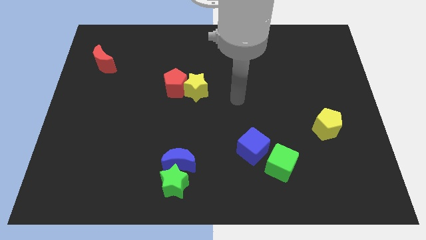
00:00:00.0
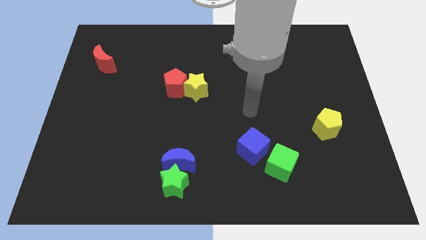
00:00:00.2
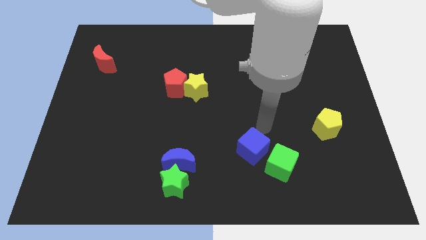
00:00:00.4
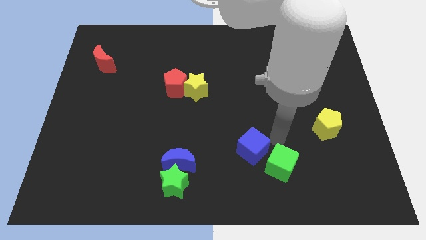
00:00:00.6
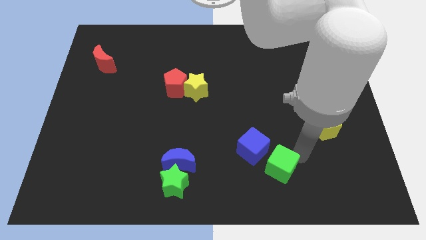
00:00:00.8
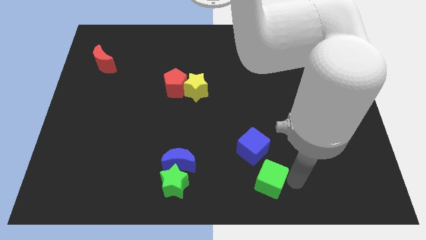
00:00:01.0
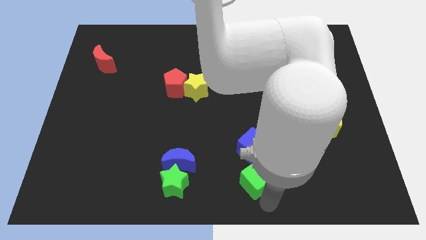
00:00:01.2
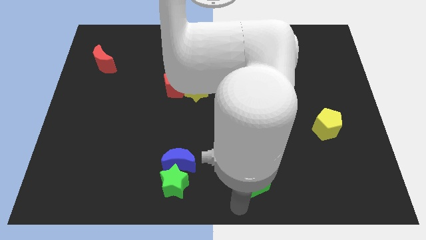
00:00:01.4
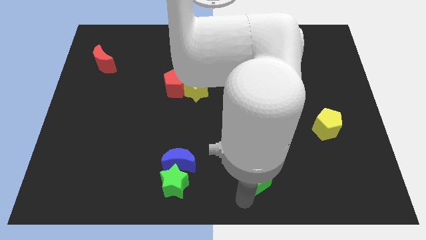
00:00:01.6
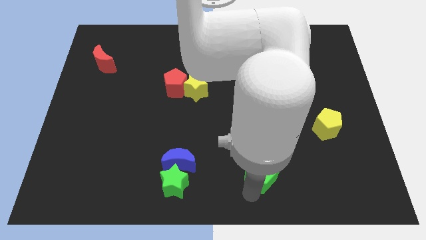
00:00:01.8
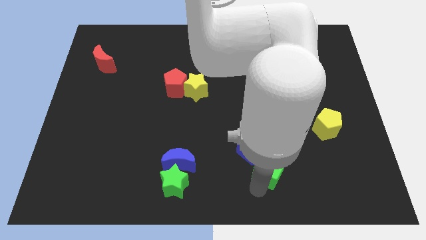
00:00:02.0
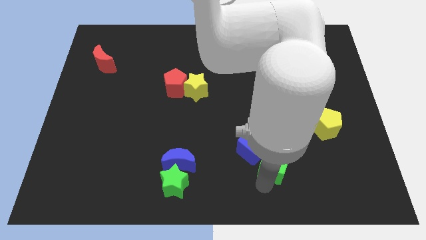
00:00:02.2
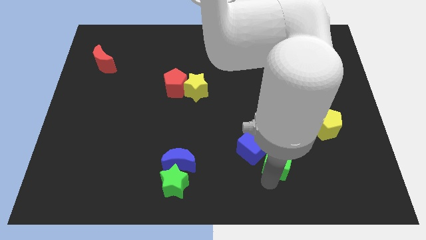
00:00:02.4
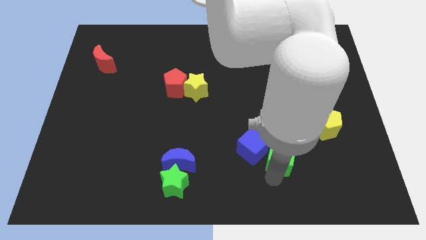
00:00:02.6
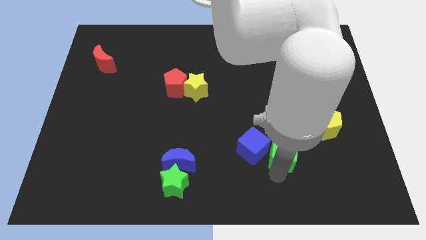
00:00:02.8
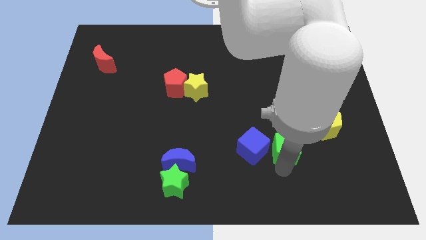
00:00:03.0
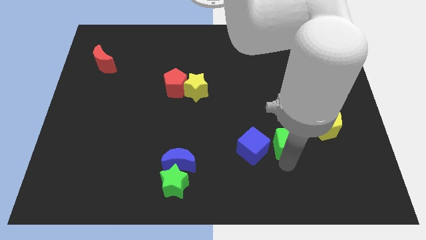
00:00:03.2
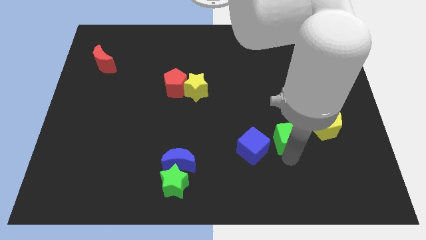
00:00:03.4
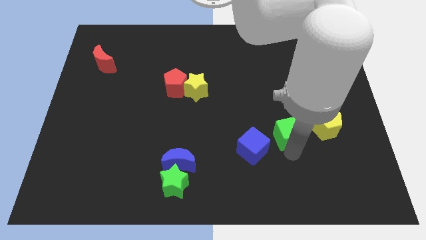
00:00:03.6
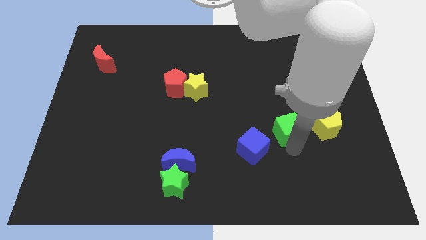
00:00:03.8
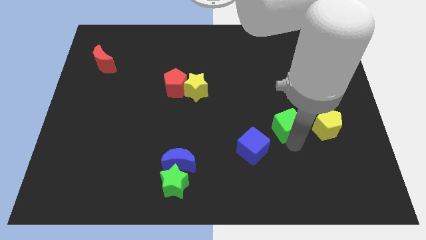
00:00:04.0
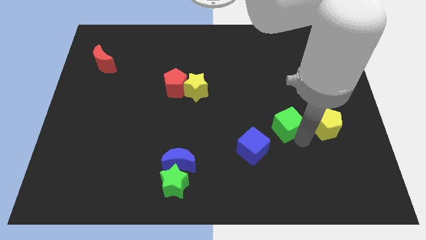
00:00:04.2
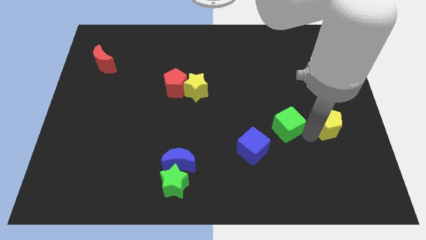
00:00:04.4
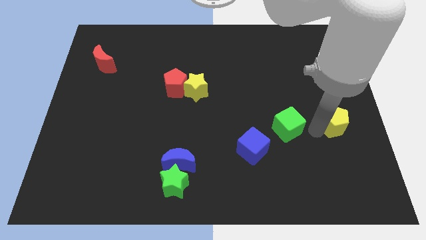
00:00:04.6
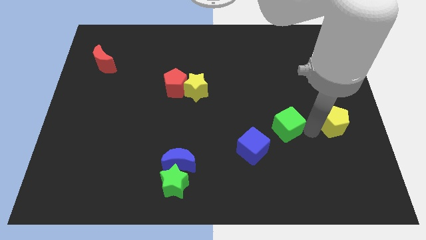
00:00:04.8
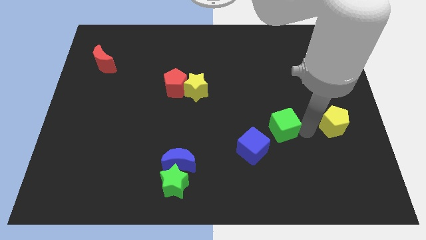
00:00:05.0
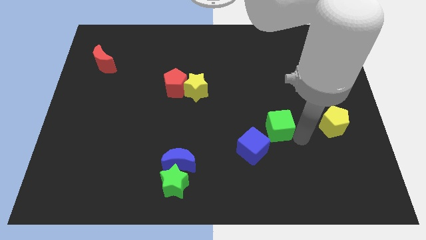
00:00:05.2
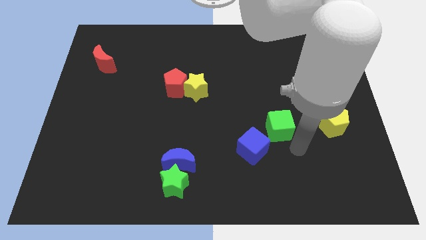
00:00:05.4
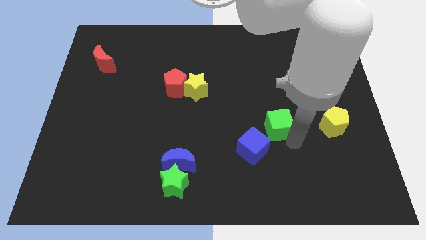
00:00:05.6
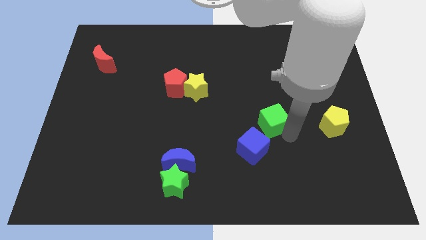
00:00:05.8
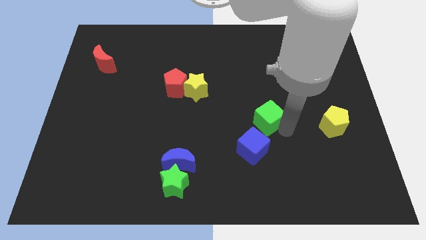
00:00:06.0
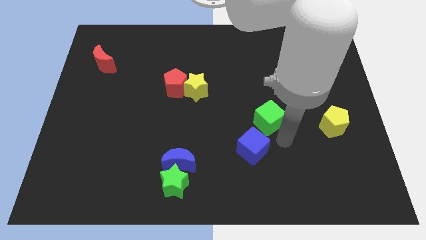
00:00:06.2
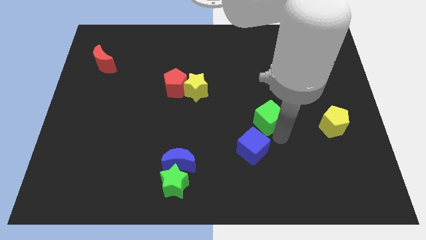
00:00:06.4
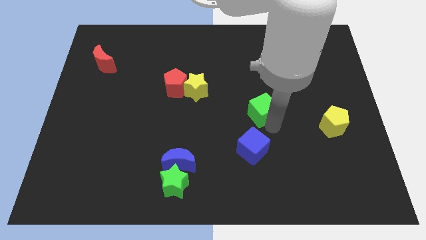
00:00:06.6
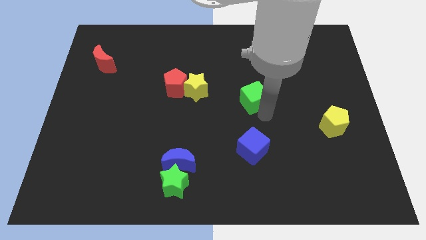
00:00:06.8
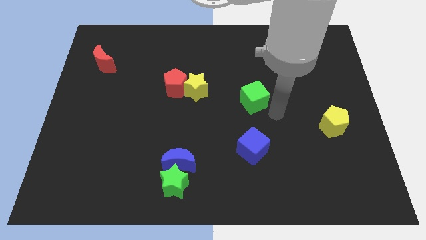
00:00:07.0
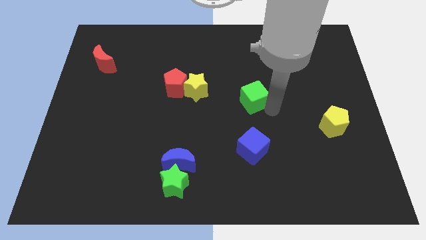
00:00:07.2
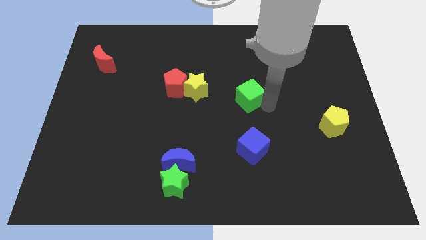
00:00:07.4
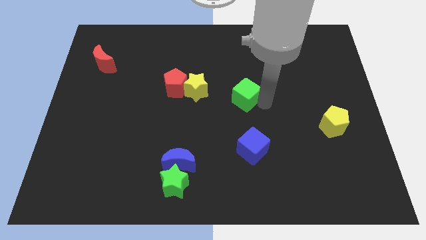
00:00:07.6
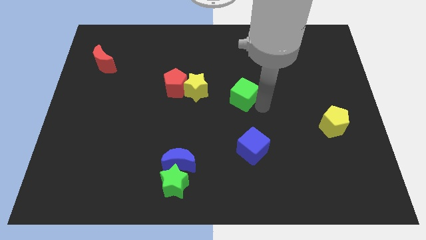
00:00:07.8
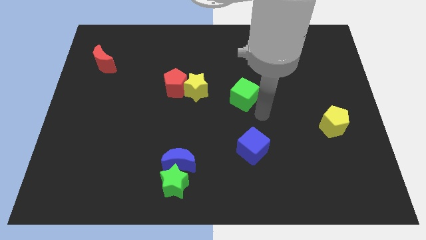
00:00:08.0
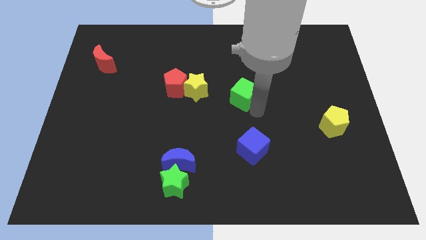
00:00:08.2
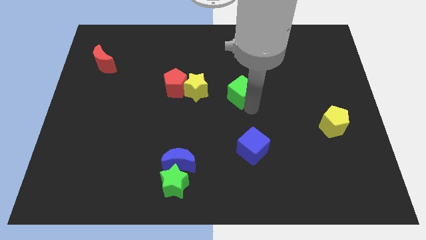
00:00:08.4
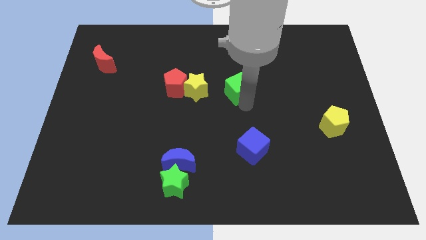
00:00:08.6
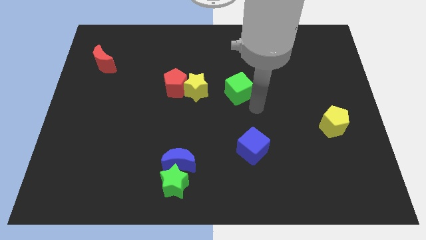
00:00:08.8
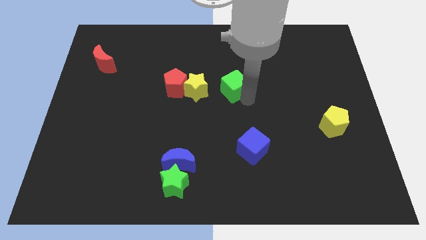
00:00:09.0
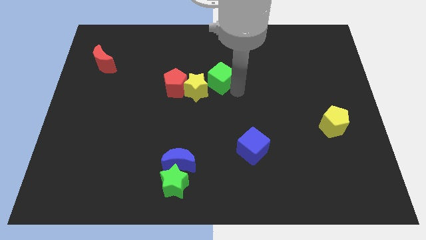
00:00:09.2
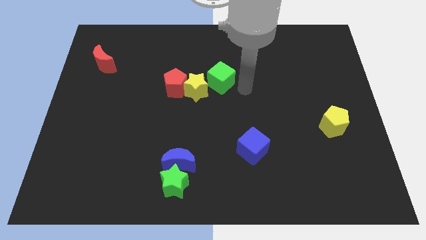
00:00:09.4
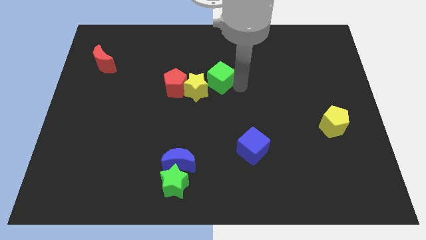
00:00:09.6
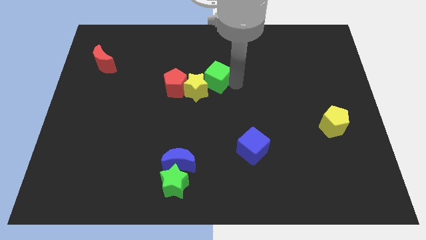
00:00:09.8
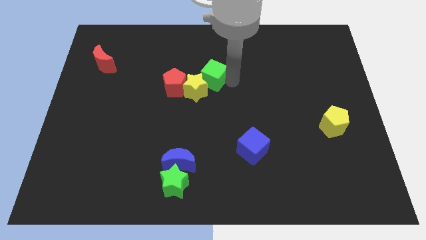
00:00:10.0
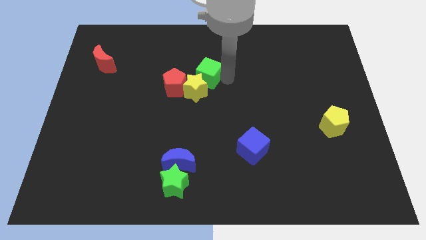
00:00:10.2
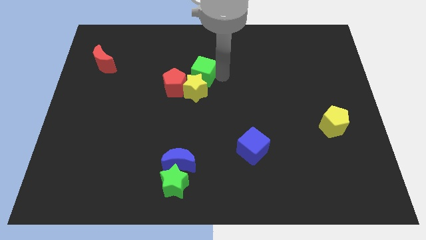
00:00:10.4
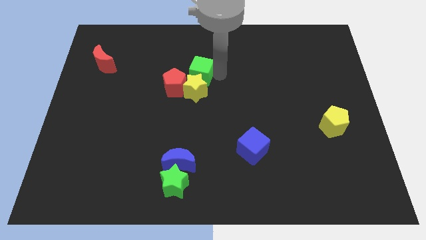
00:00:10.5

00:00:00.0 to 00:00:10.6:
slide the green cube to the top left side of the yellow star

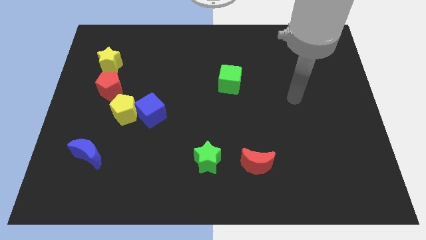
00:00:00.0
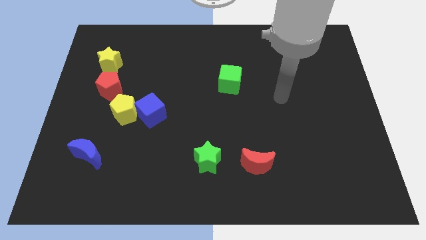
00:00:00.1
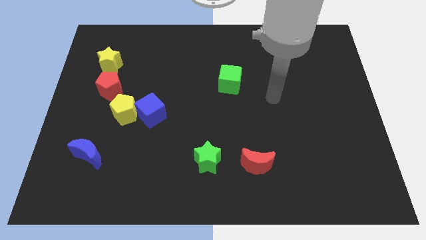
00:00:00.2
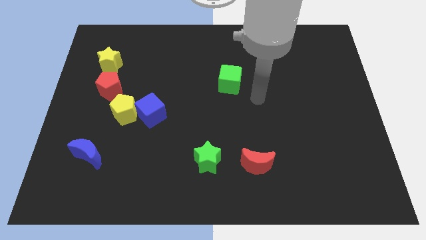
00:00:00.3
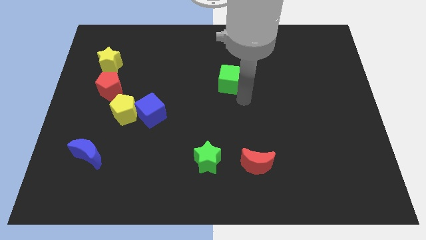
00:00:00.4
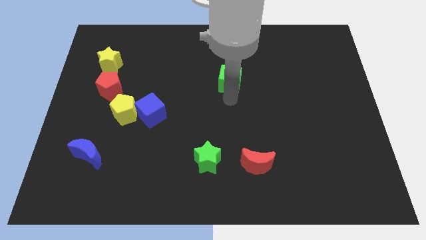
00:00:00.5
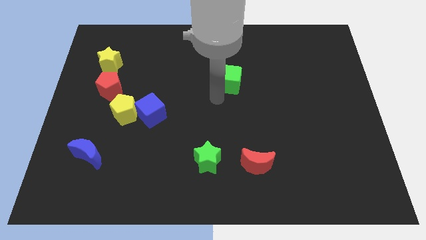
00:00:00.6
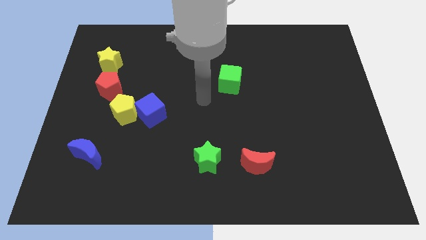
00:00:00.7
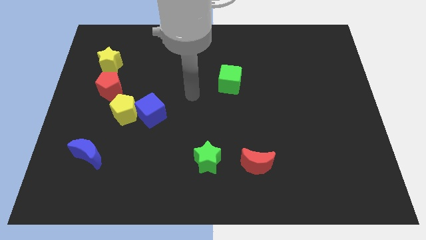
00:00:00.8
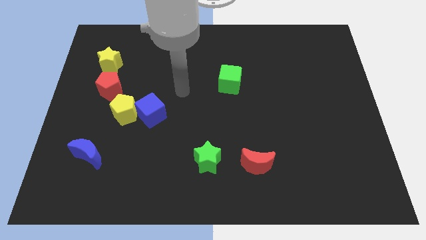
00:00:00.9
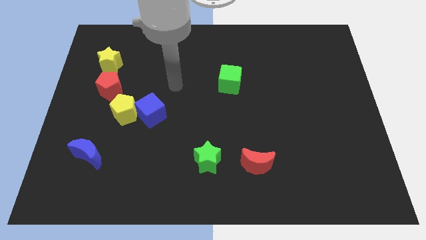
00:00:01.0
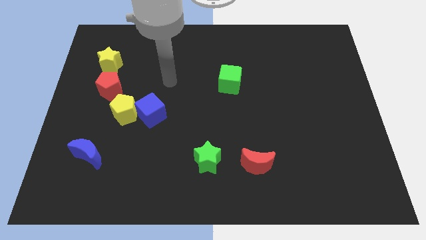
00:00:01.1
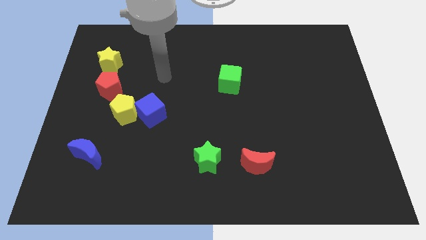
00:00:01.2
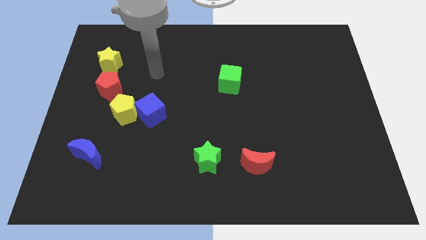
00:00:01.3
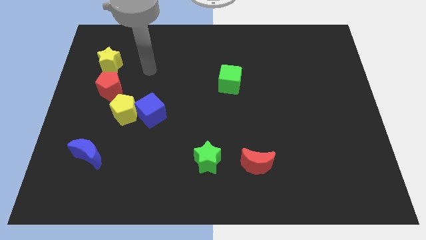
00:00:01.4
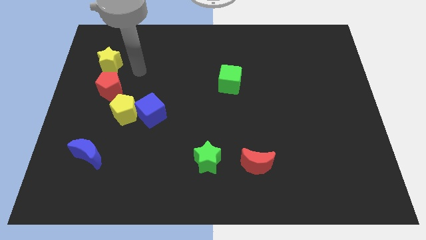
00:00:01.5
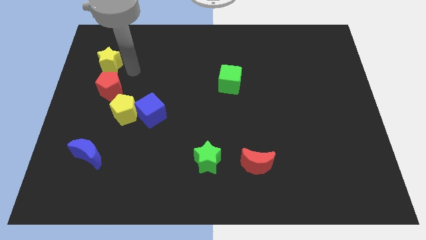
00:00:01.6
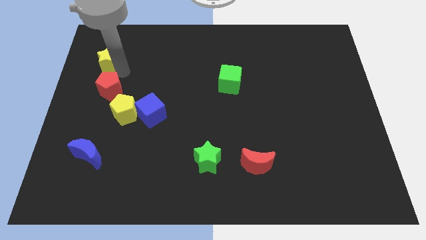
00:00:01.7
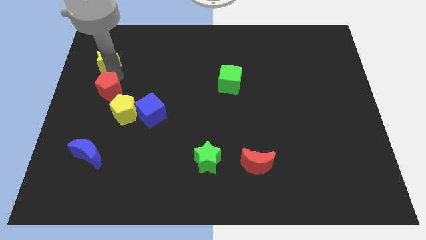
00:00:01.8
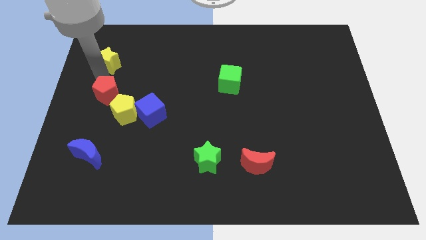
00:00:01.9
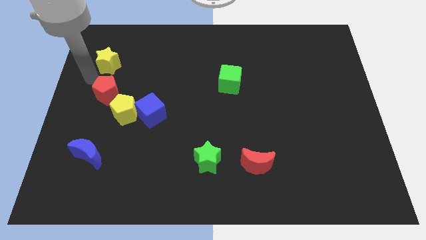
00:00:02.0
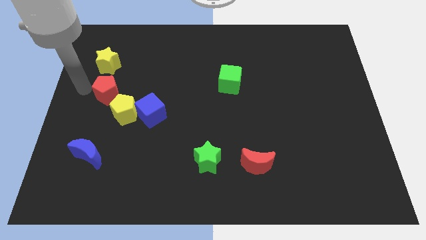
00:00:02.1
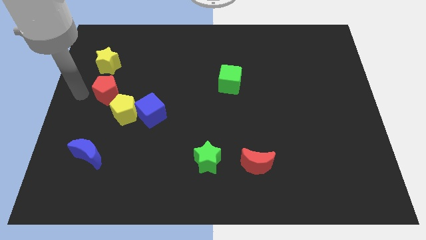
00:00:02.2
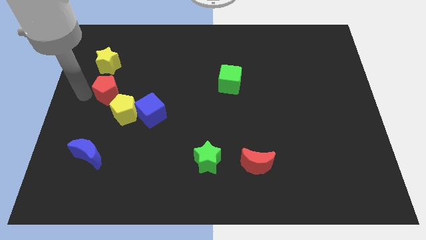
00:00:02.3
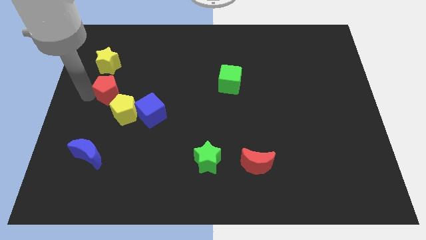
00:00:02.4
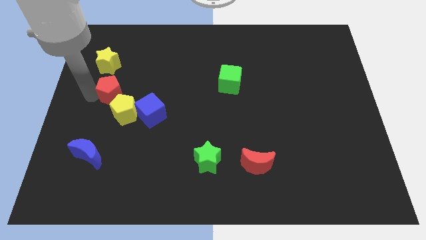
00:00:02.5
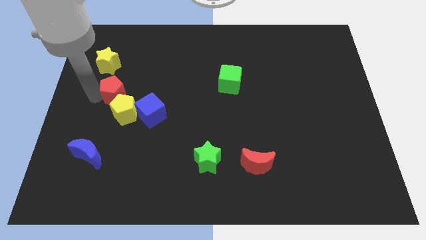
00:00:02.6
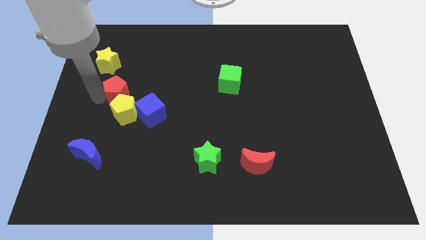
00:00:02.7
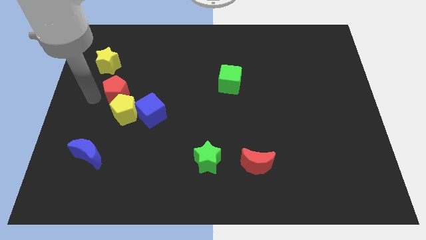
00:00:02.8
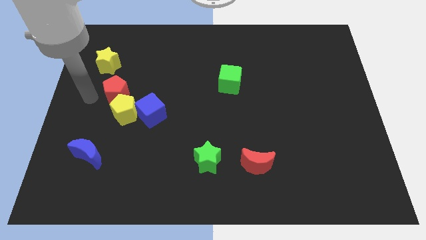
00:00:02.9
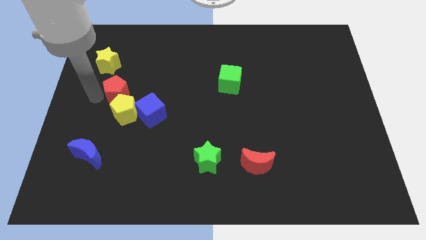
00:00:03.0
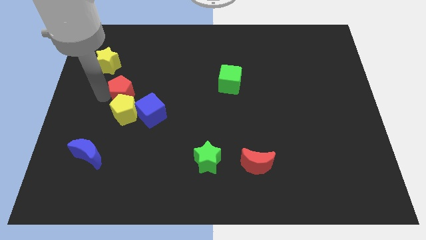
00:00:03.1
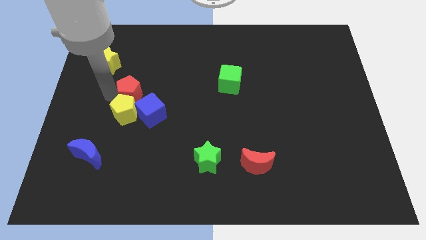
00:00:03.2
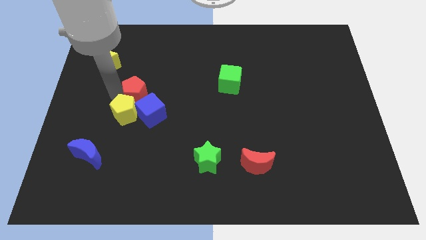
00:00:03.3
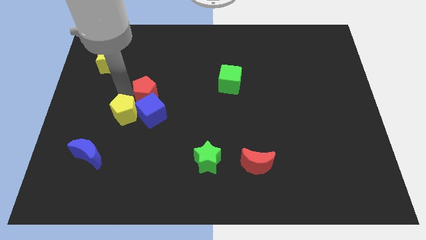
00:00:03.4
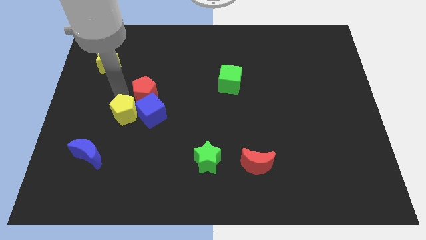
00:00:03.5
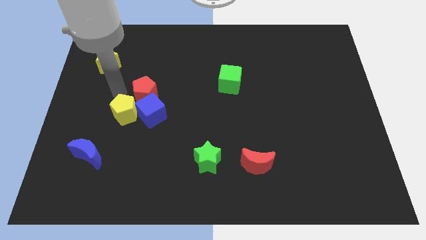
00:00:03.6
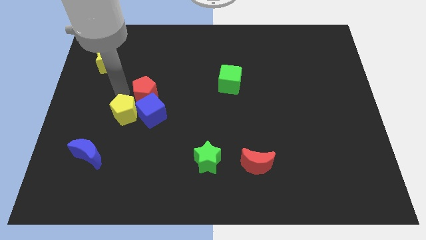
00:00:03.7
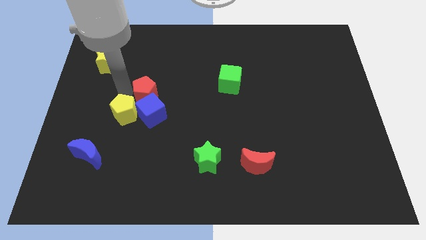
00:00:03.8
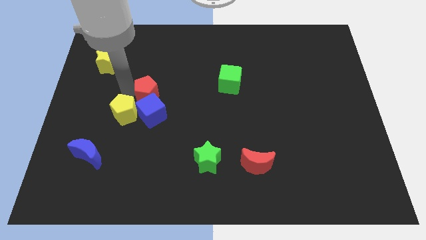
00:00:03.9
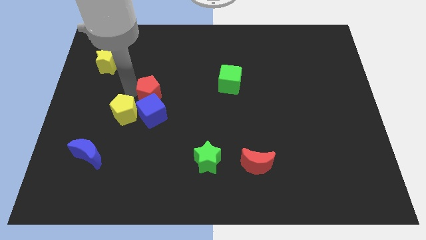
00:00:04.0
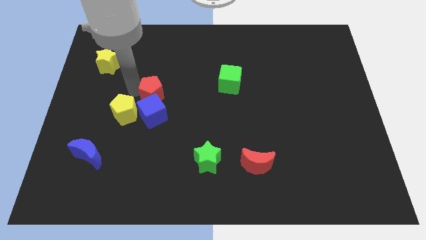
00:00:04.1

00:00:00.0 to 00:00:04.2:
push the red pentagon diagonally up and to the right of the blue cube
